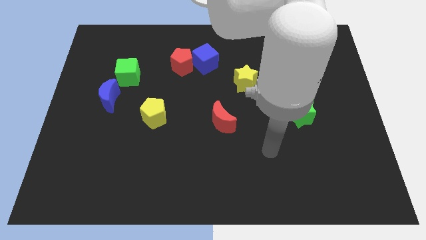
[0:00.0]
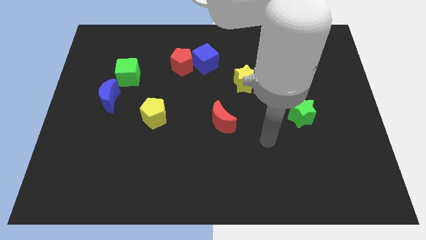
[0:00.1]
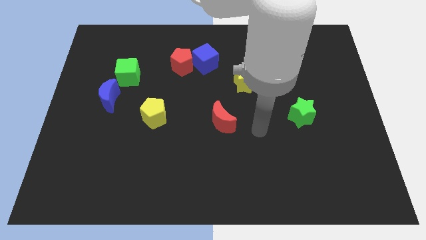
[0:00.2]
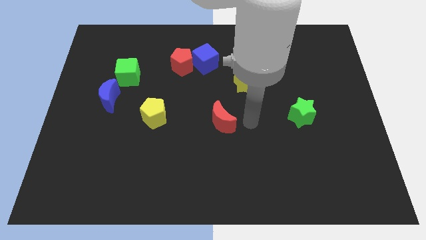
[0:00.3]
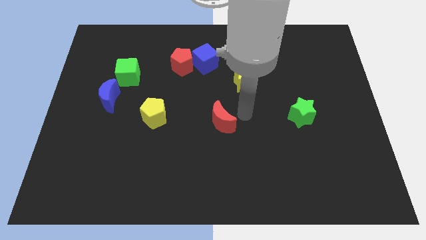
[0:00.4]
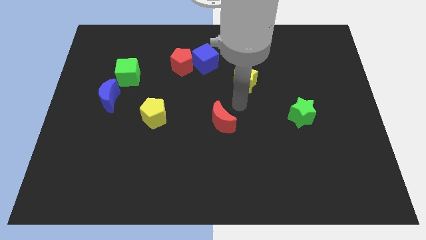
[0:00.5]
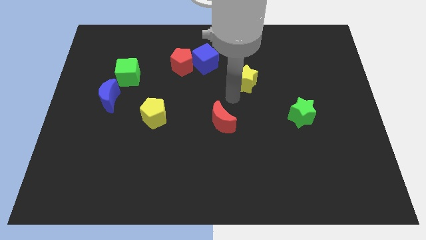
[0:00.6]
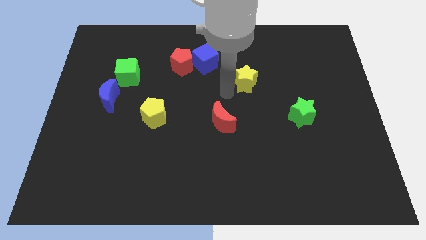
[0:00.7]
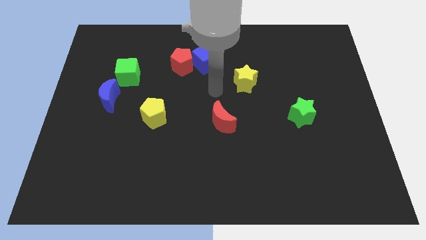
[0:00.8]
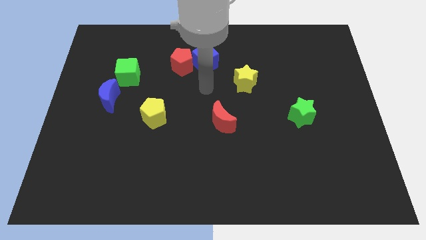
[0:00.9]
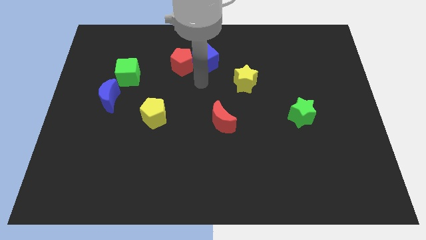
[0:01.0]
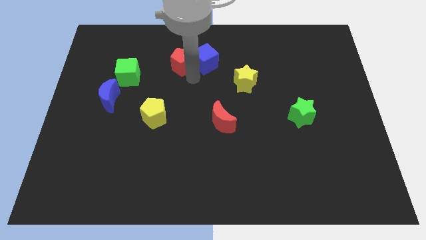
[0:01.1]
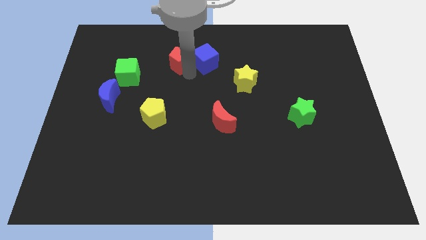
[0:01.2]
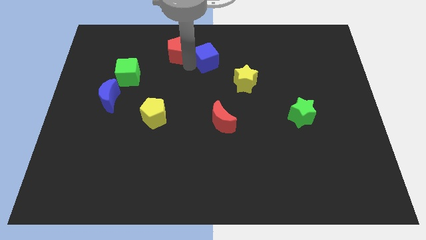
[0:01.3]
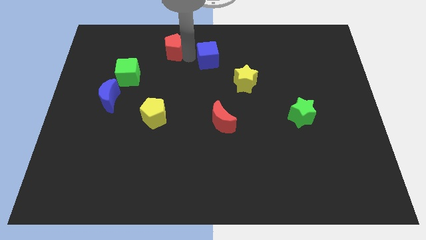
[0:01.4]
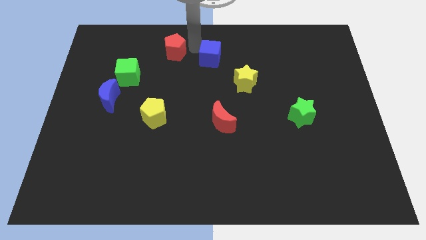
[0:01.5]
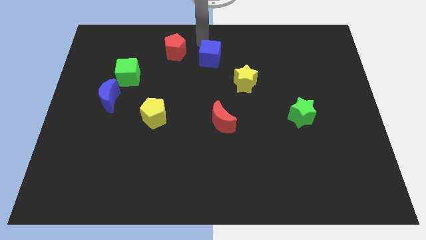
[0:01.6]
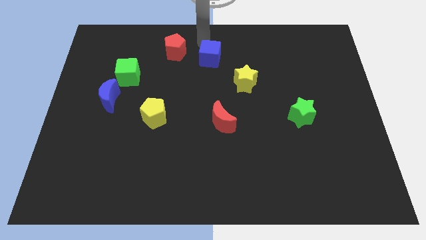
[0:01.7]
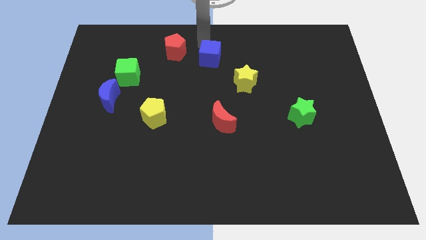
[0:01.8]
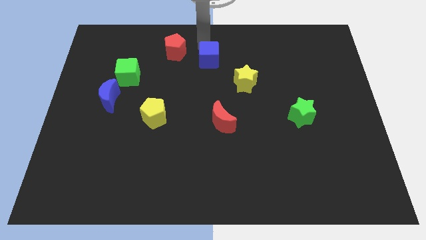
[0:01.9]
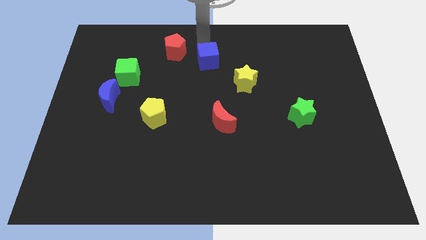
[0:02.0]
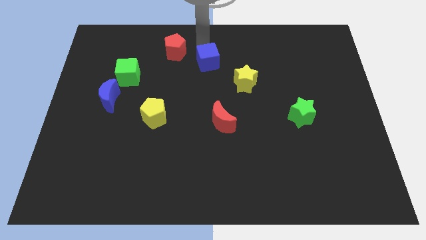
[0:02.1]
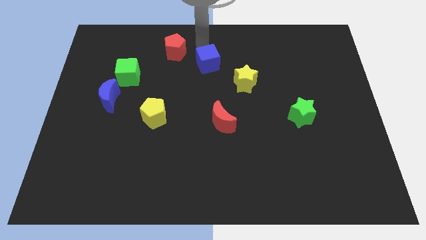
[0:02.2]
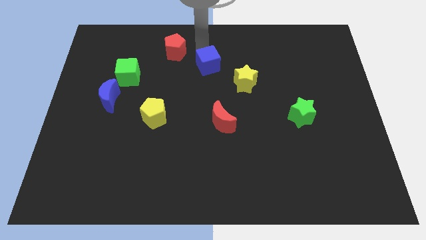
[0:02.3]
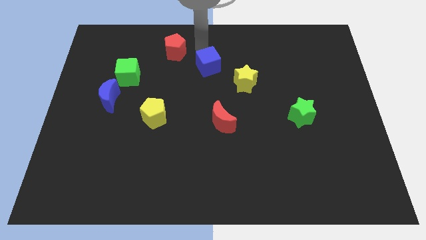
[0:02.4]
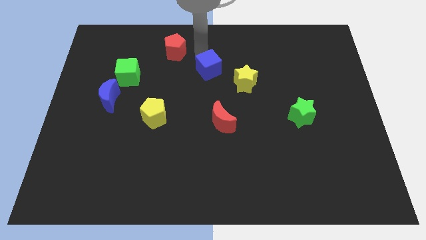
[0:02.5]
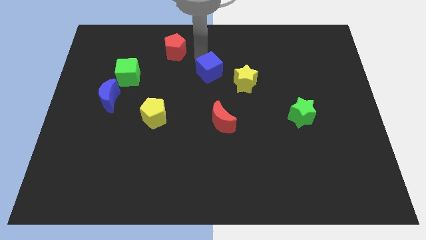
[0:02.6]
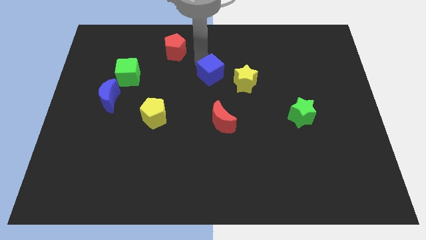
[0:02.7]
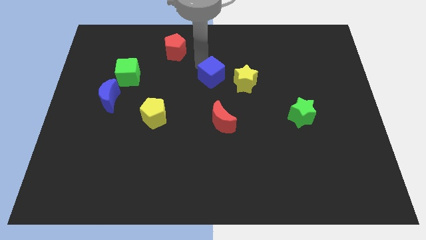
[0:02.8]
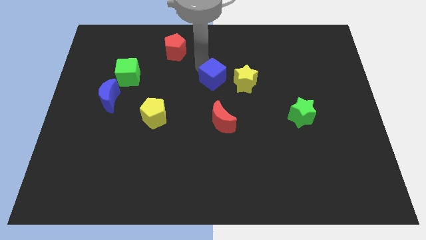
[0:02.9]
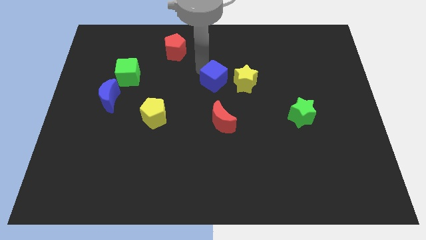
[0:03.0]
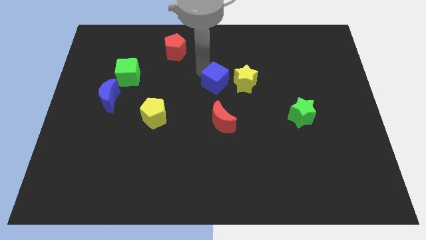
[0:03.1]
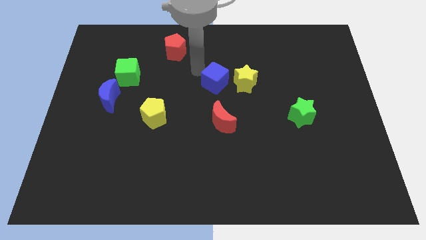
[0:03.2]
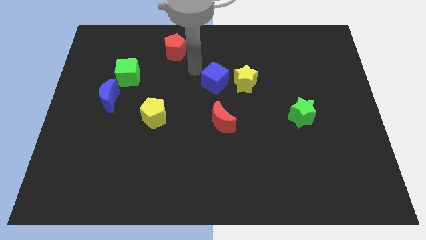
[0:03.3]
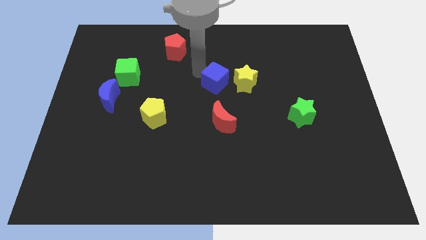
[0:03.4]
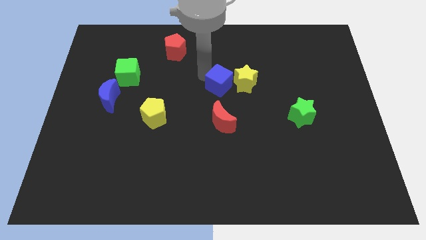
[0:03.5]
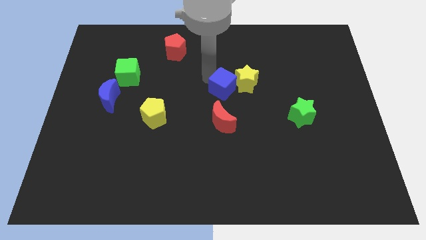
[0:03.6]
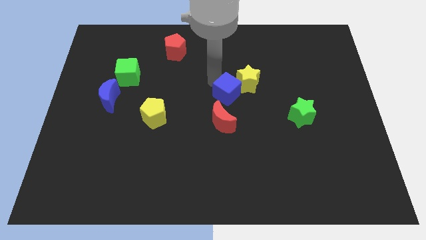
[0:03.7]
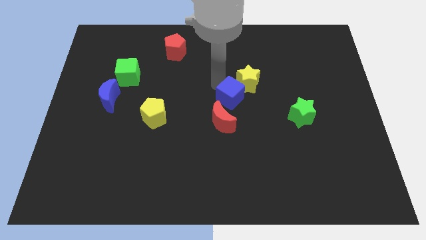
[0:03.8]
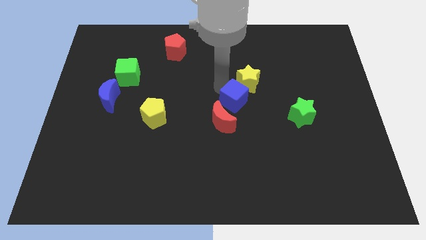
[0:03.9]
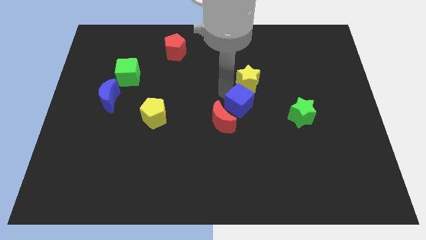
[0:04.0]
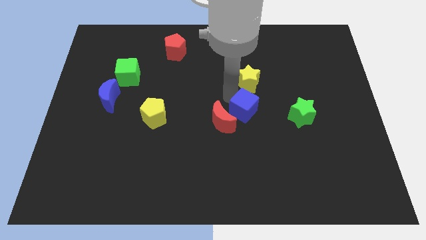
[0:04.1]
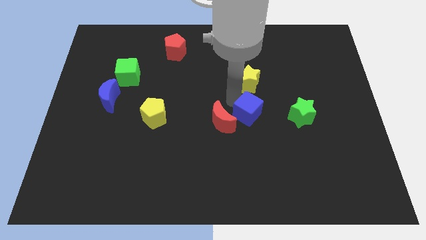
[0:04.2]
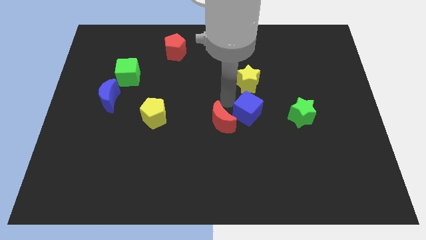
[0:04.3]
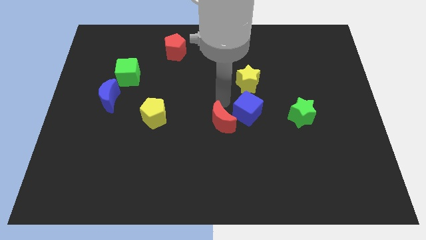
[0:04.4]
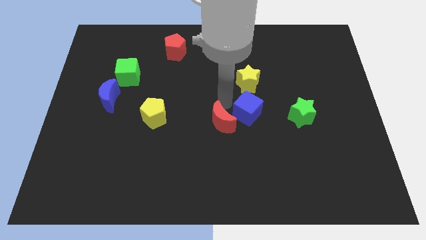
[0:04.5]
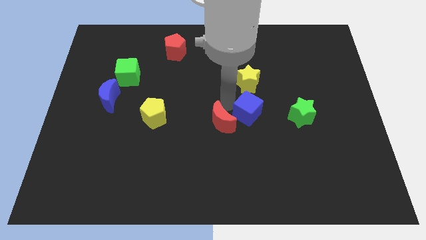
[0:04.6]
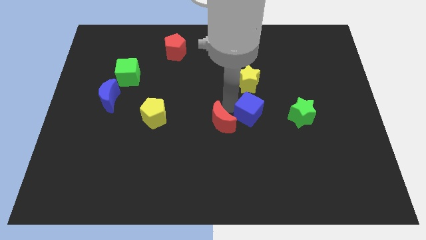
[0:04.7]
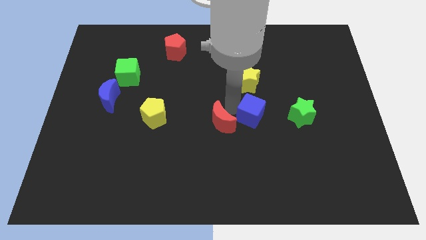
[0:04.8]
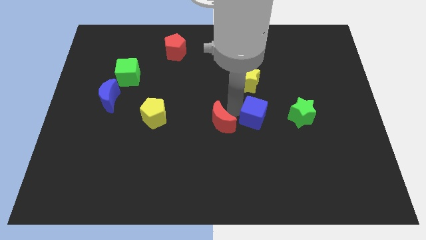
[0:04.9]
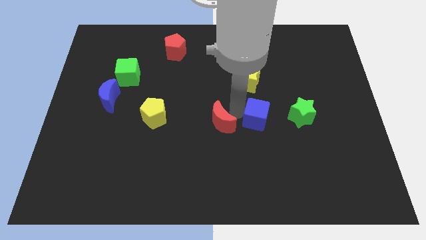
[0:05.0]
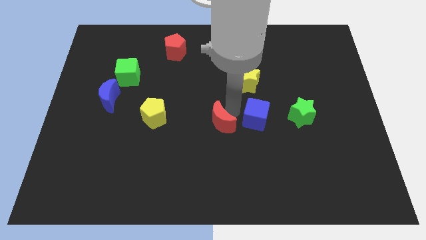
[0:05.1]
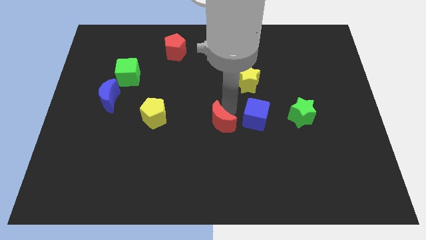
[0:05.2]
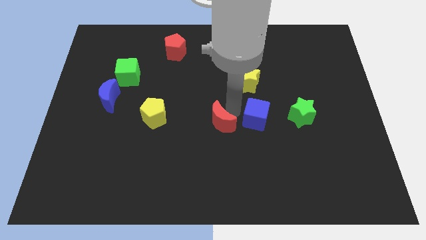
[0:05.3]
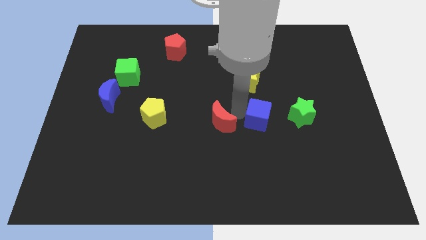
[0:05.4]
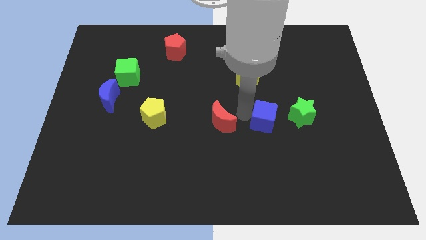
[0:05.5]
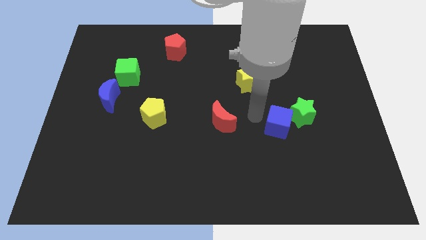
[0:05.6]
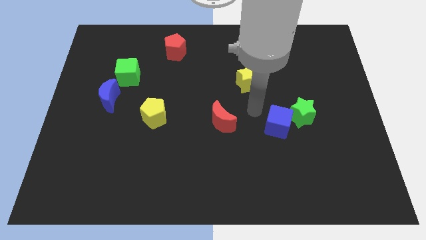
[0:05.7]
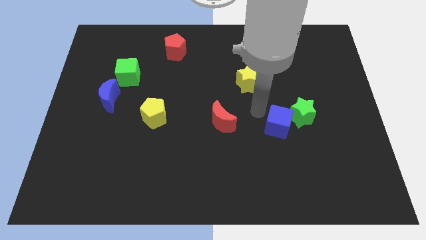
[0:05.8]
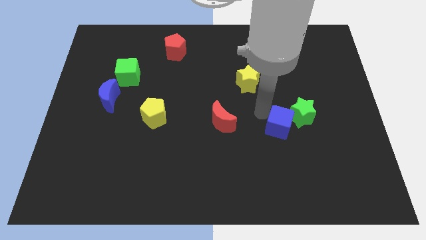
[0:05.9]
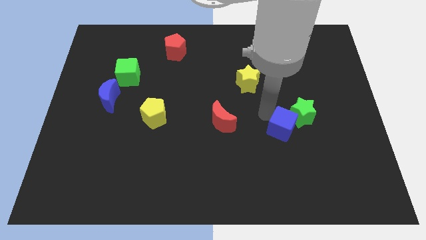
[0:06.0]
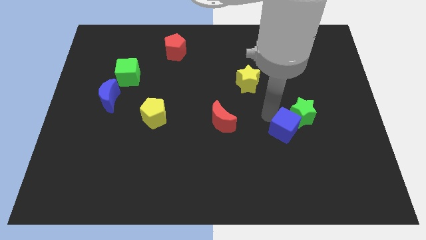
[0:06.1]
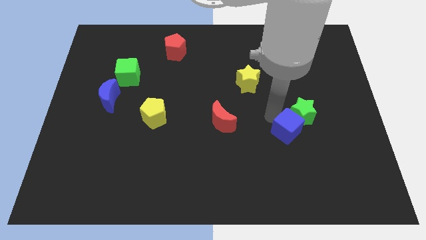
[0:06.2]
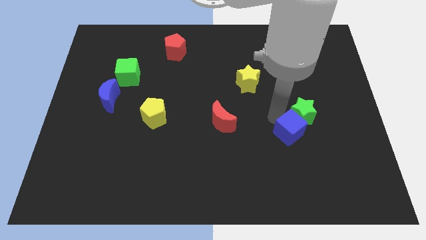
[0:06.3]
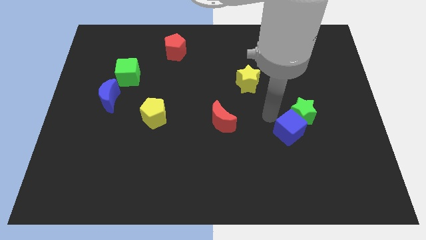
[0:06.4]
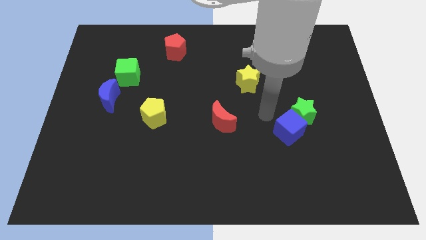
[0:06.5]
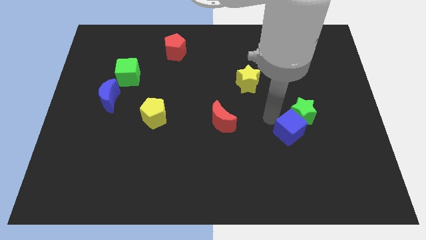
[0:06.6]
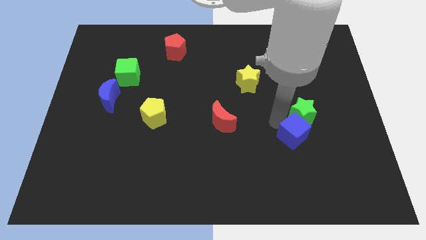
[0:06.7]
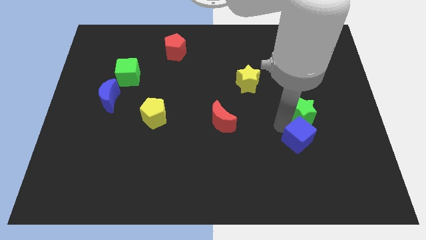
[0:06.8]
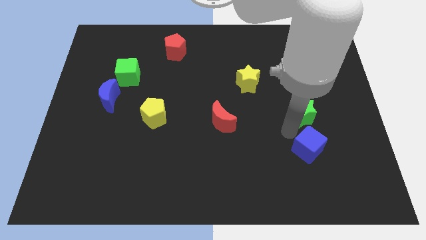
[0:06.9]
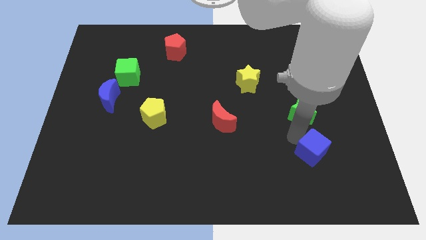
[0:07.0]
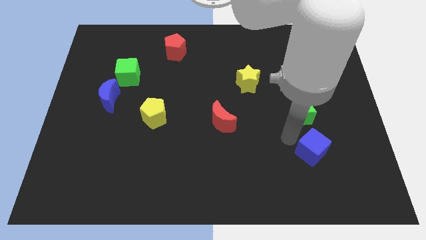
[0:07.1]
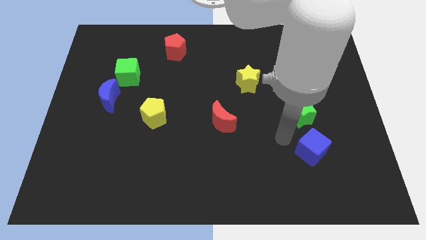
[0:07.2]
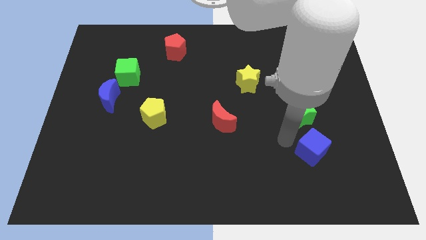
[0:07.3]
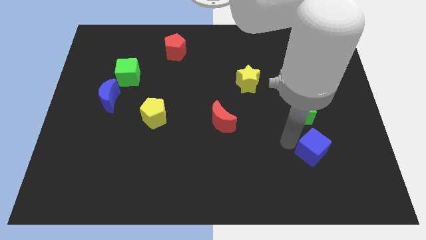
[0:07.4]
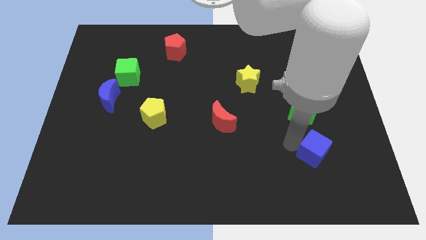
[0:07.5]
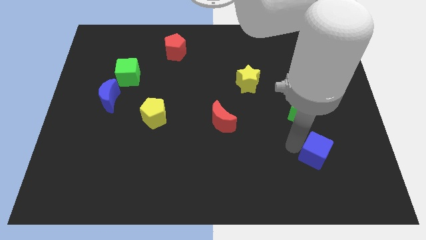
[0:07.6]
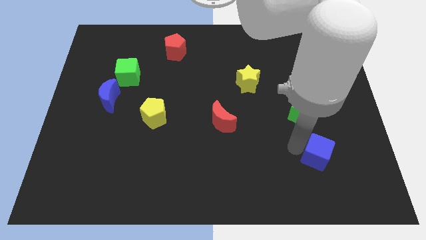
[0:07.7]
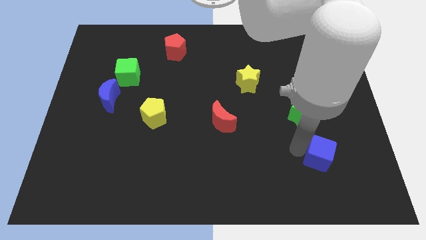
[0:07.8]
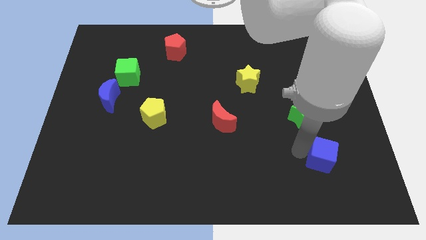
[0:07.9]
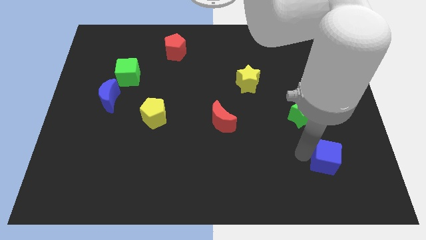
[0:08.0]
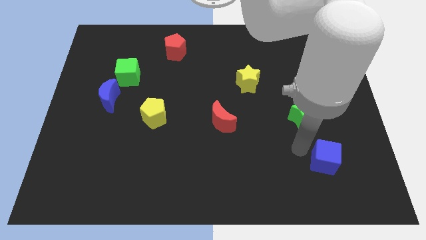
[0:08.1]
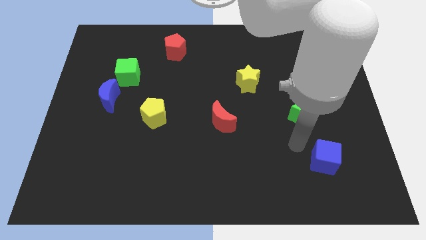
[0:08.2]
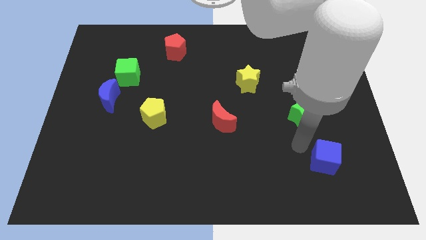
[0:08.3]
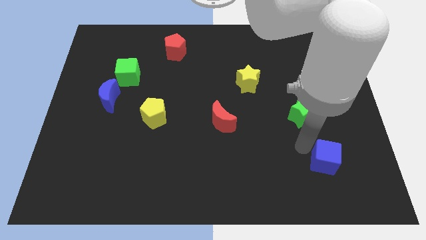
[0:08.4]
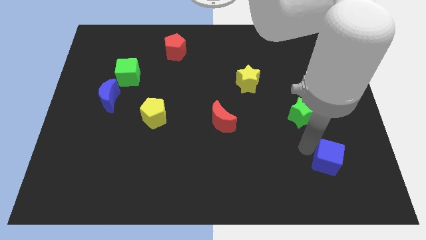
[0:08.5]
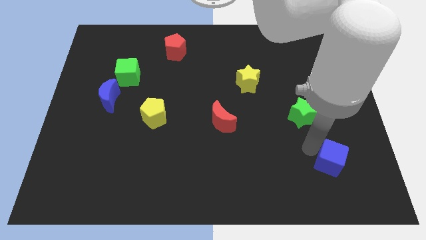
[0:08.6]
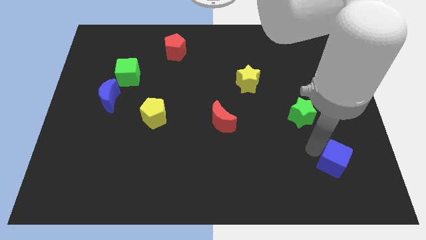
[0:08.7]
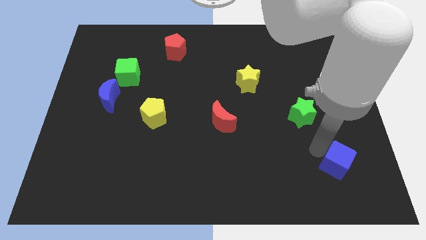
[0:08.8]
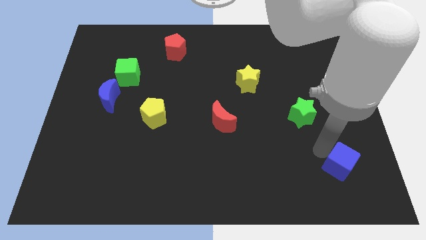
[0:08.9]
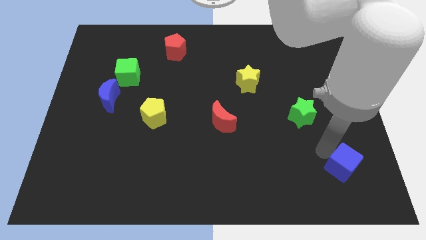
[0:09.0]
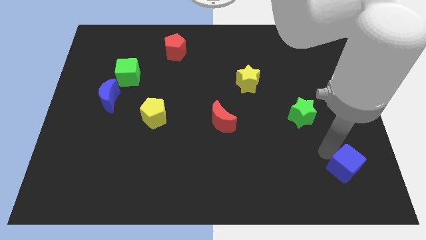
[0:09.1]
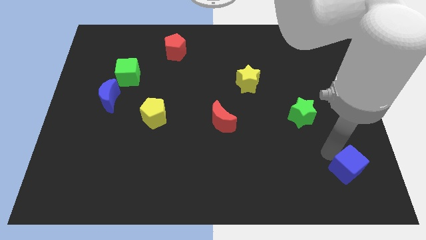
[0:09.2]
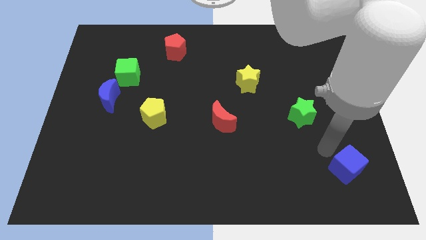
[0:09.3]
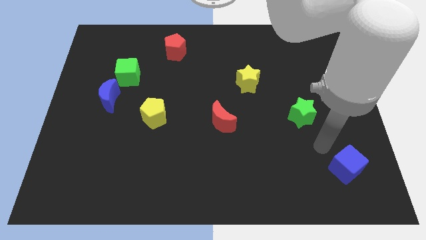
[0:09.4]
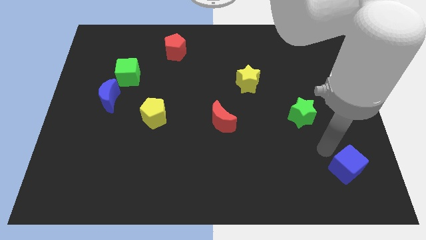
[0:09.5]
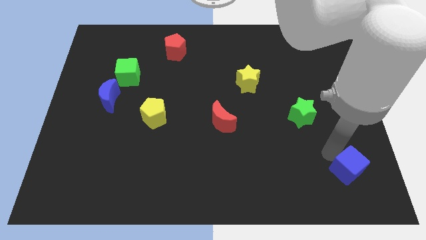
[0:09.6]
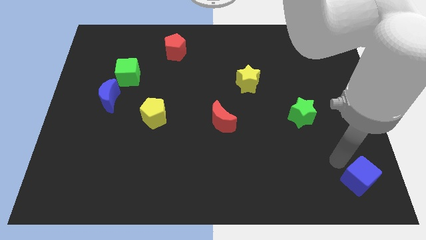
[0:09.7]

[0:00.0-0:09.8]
slide the blue cube to the lower right corner
